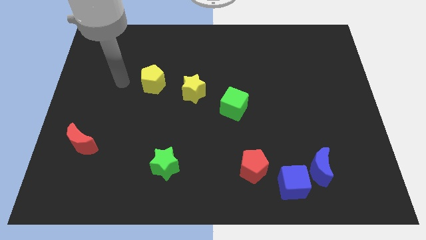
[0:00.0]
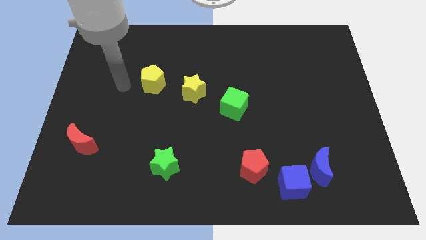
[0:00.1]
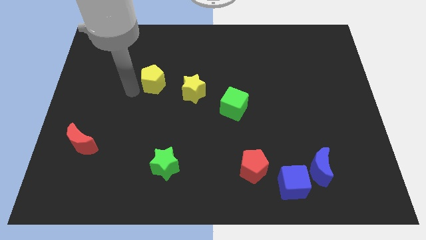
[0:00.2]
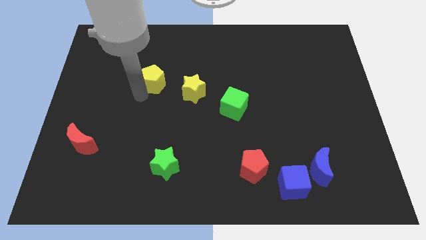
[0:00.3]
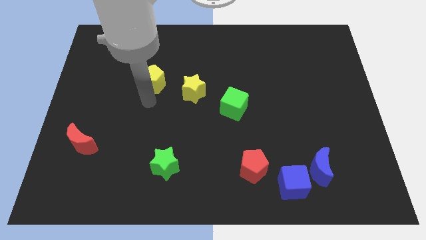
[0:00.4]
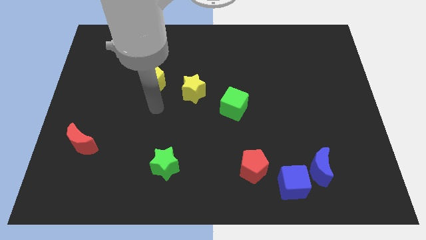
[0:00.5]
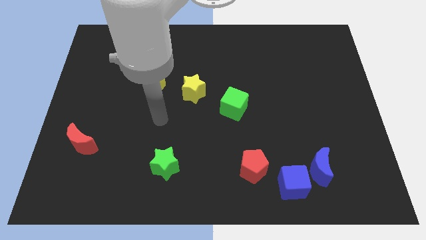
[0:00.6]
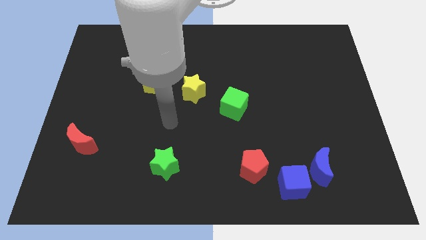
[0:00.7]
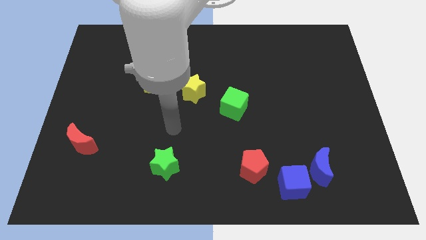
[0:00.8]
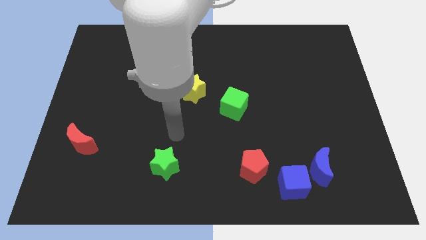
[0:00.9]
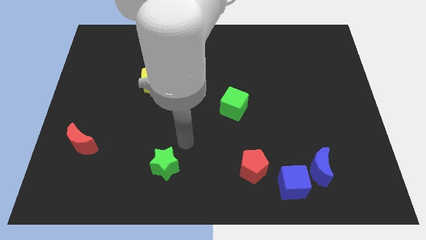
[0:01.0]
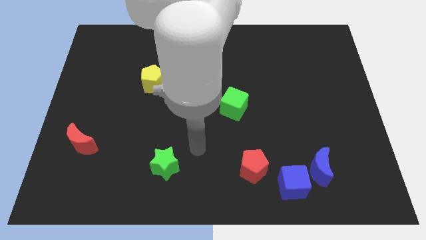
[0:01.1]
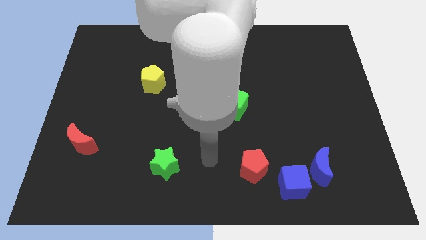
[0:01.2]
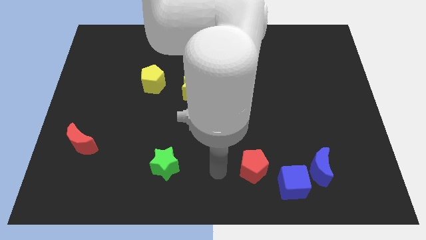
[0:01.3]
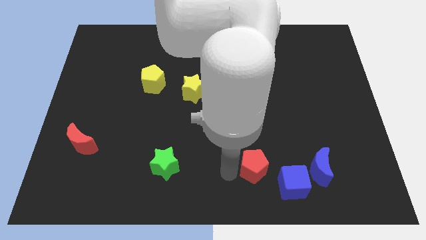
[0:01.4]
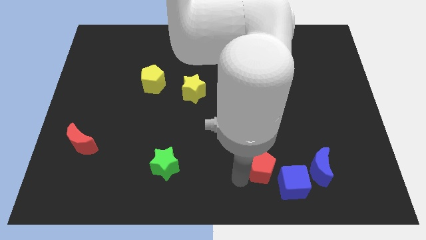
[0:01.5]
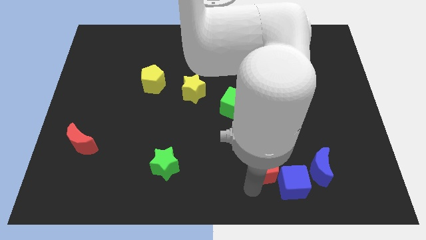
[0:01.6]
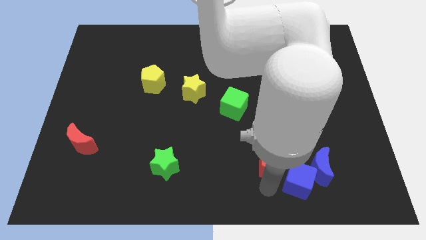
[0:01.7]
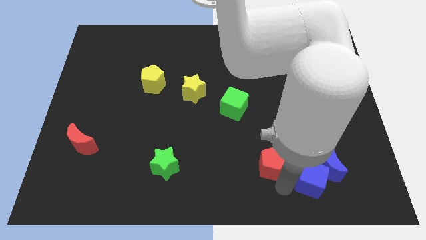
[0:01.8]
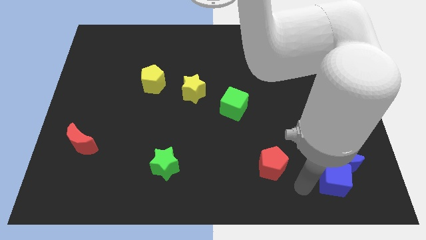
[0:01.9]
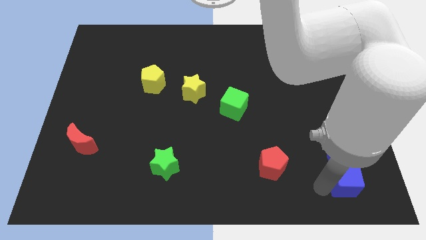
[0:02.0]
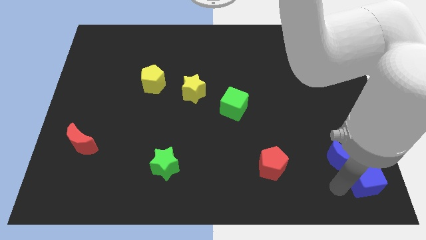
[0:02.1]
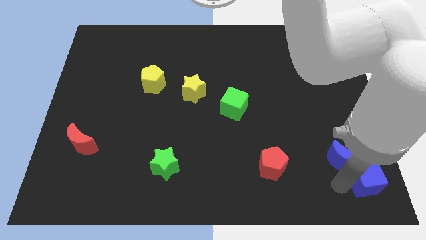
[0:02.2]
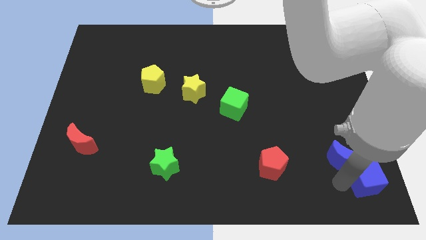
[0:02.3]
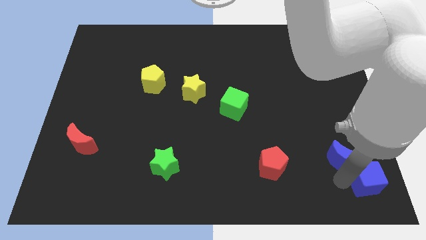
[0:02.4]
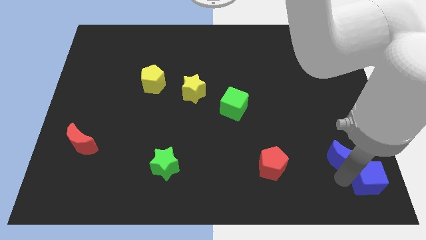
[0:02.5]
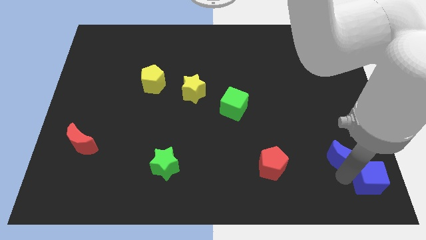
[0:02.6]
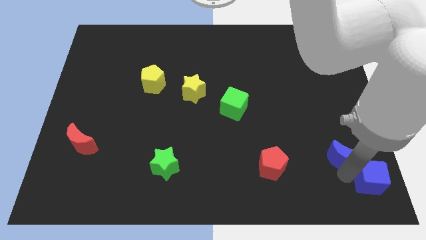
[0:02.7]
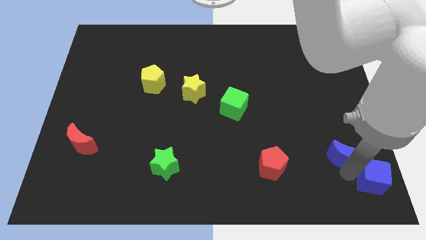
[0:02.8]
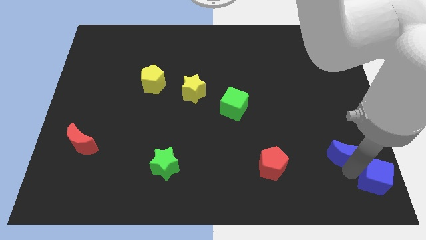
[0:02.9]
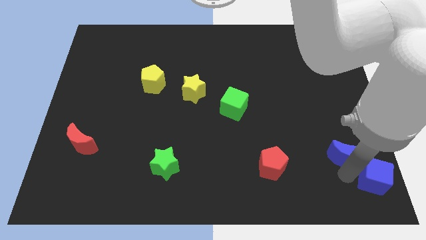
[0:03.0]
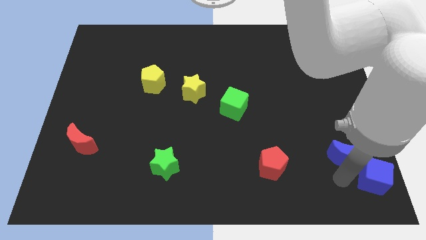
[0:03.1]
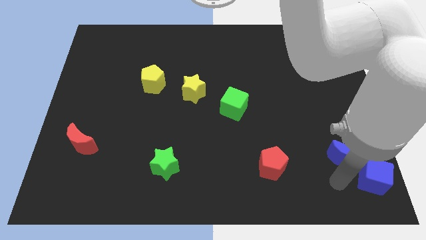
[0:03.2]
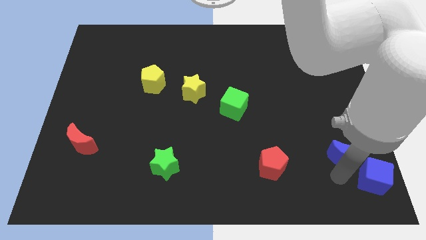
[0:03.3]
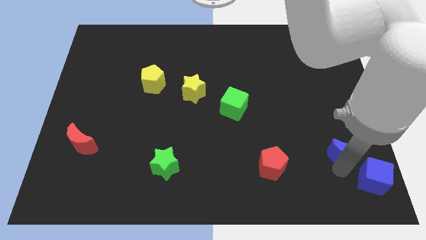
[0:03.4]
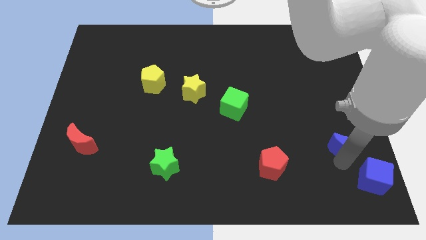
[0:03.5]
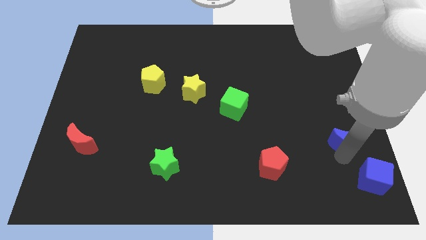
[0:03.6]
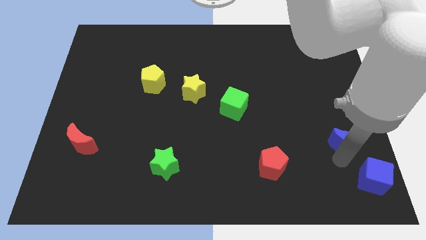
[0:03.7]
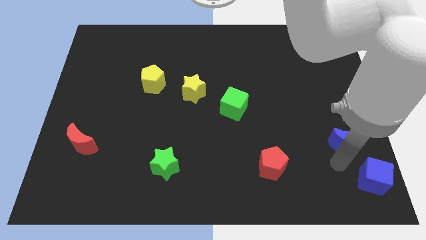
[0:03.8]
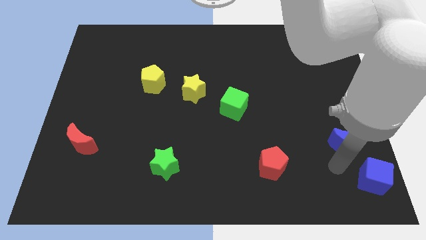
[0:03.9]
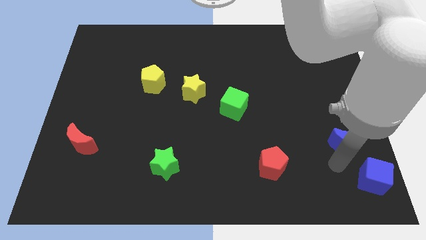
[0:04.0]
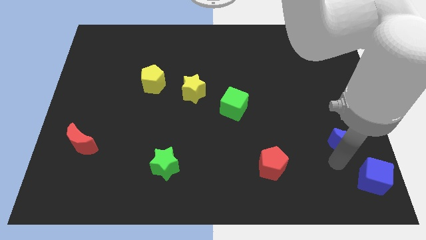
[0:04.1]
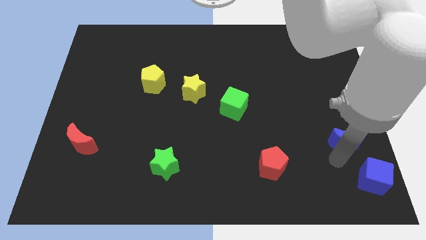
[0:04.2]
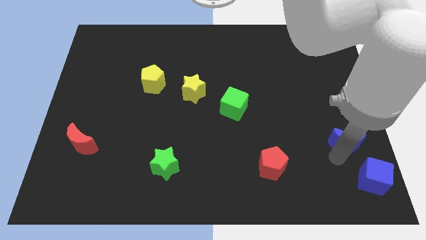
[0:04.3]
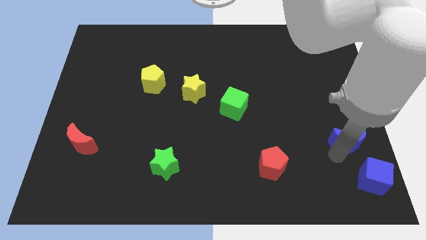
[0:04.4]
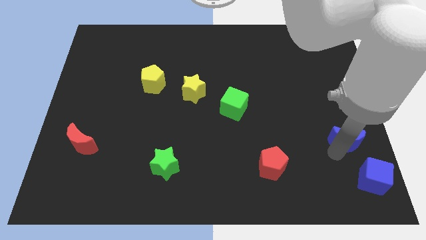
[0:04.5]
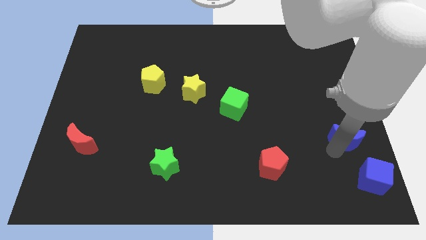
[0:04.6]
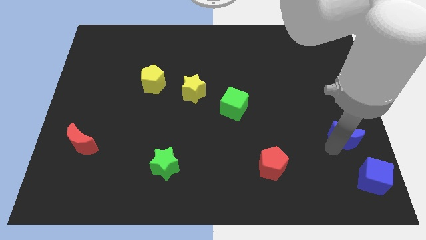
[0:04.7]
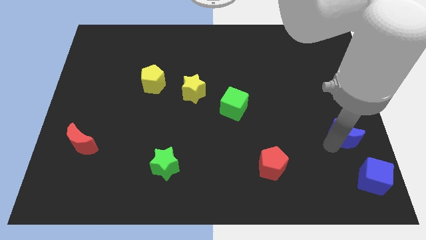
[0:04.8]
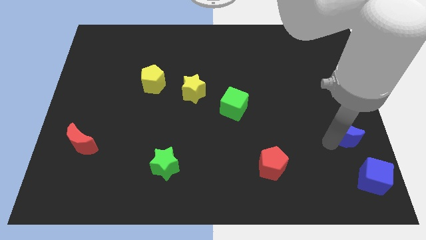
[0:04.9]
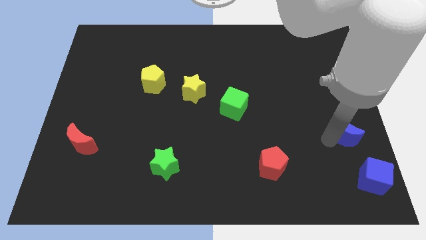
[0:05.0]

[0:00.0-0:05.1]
slide the blue moon to the right side

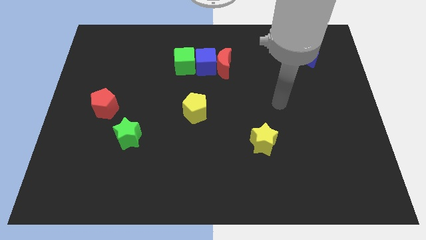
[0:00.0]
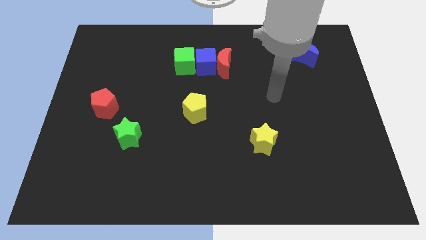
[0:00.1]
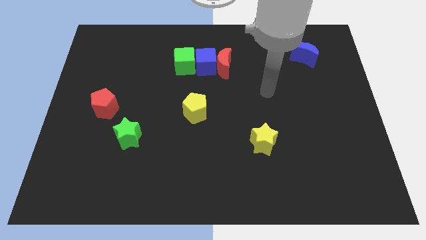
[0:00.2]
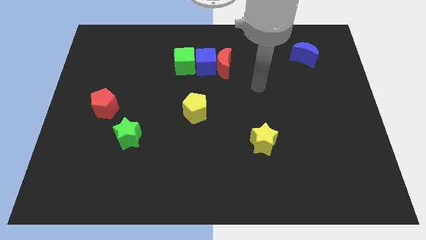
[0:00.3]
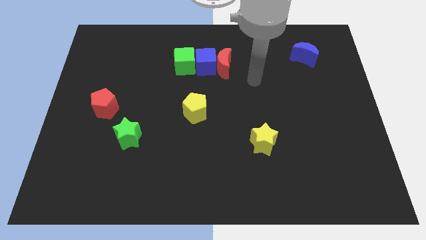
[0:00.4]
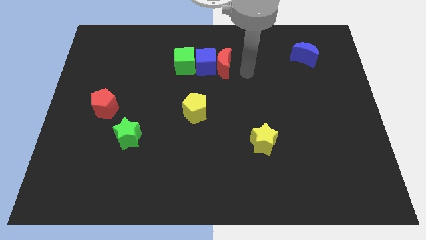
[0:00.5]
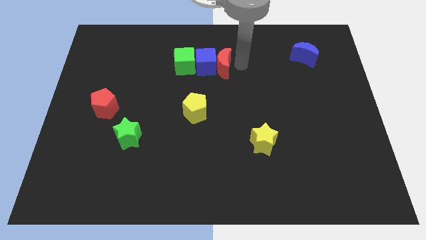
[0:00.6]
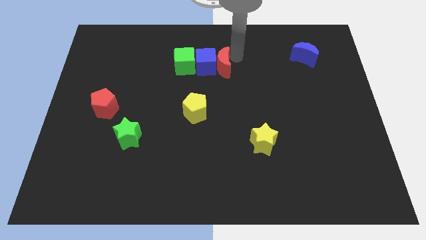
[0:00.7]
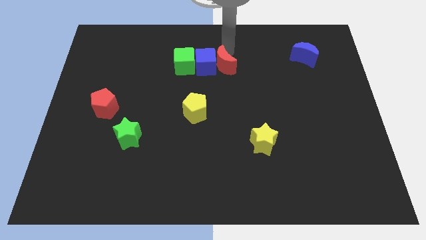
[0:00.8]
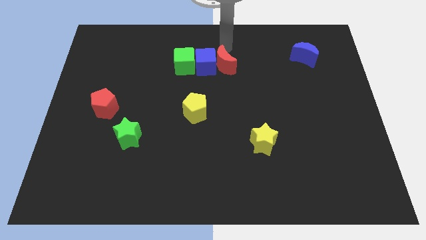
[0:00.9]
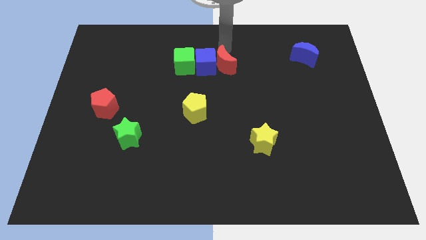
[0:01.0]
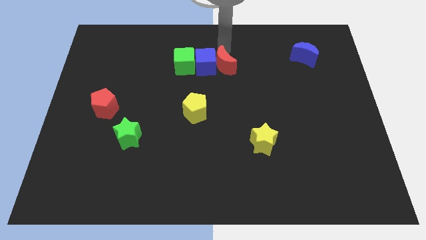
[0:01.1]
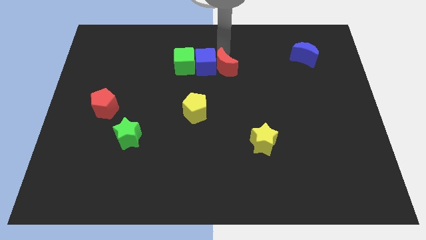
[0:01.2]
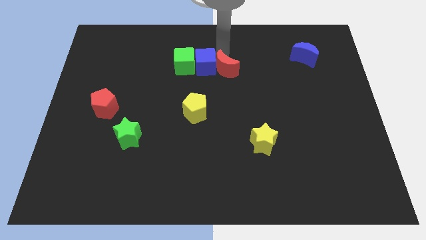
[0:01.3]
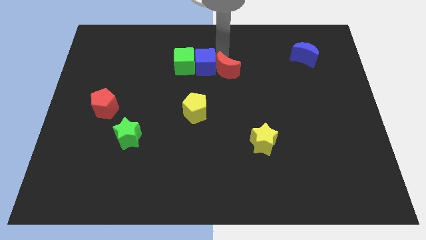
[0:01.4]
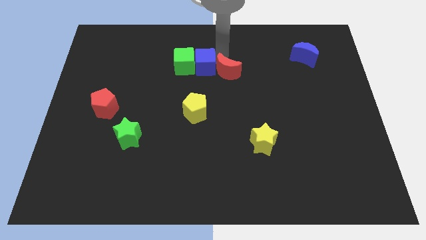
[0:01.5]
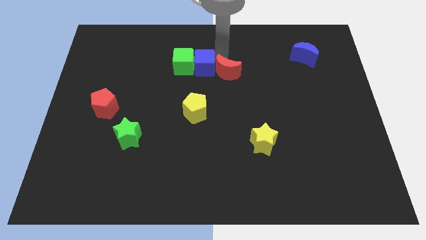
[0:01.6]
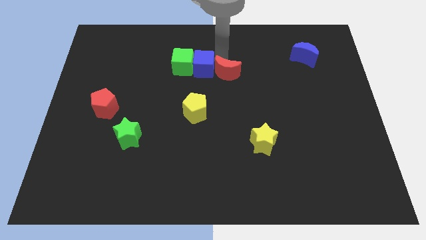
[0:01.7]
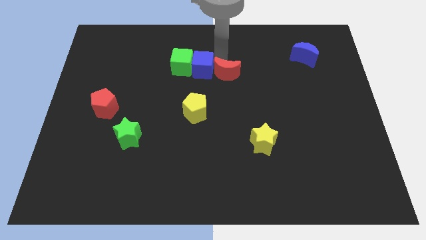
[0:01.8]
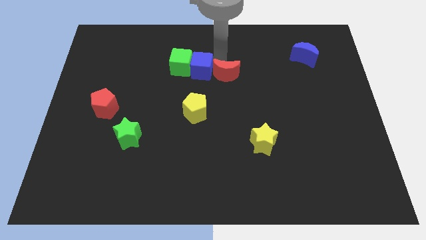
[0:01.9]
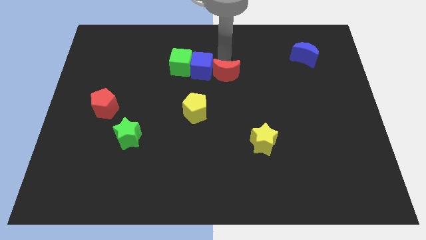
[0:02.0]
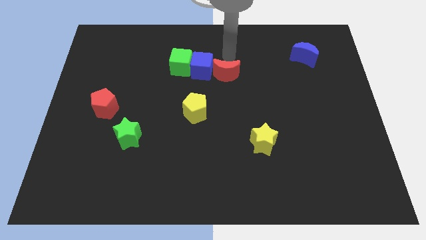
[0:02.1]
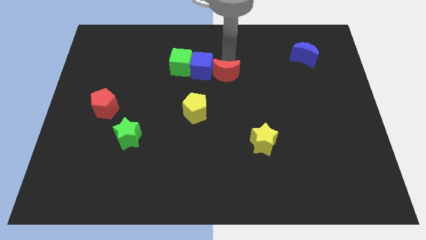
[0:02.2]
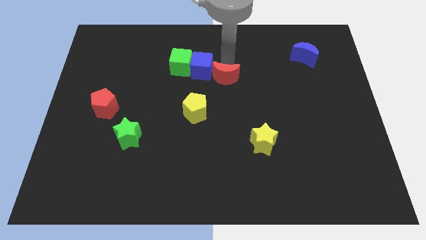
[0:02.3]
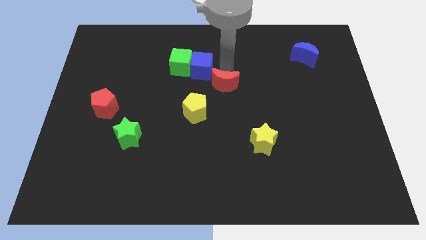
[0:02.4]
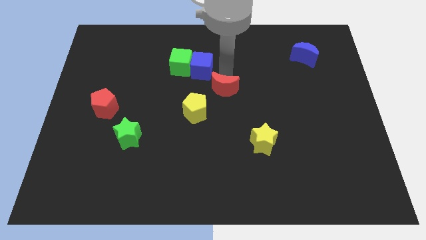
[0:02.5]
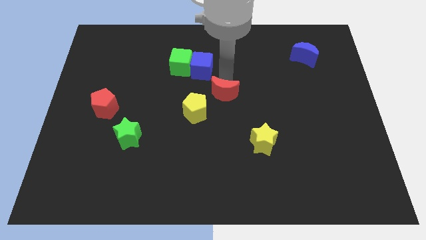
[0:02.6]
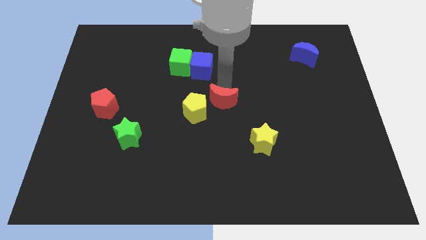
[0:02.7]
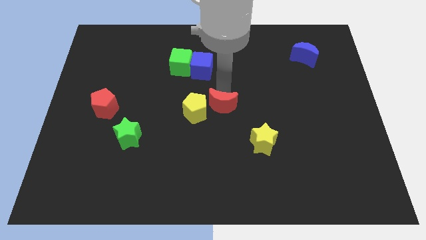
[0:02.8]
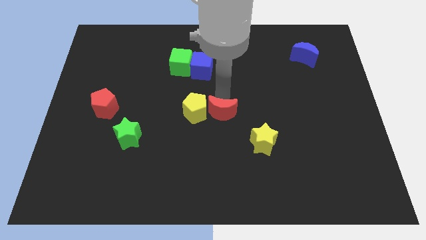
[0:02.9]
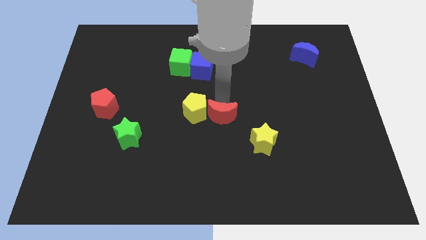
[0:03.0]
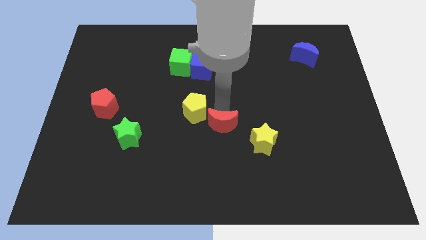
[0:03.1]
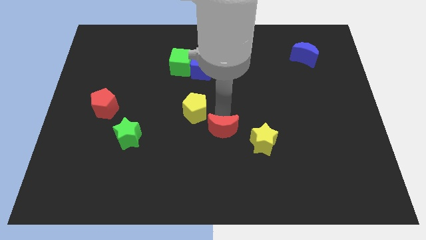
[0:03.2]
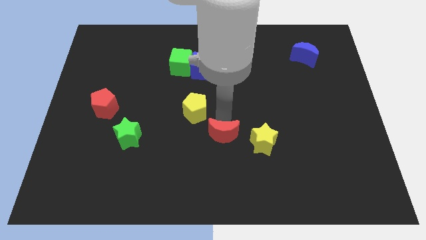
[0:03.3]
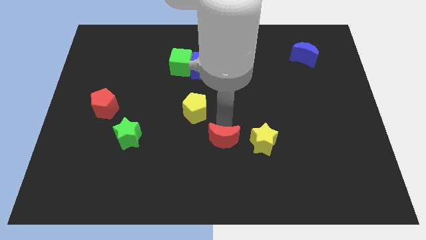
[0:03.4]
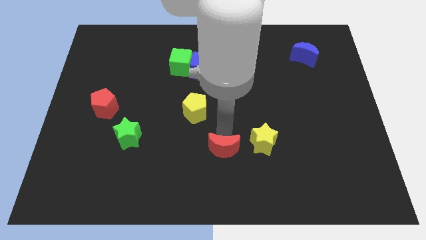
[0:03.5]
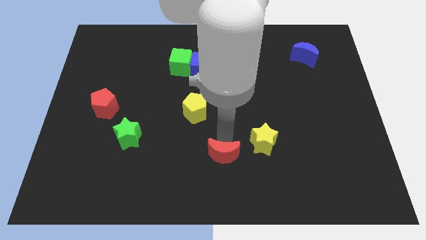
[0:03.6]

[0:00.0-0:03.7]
put the red moon to the bottom side
